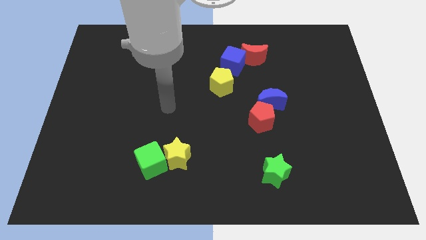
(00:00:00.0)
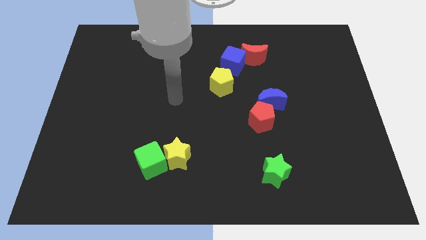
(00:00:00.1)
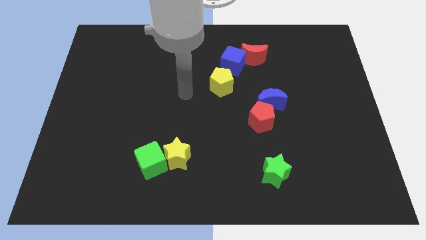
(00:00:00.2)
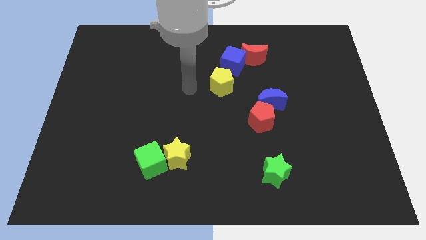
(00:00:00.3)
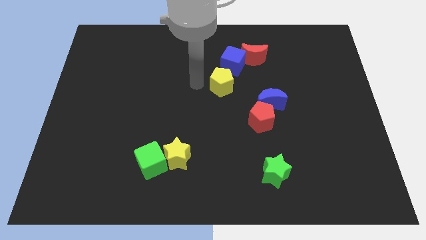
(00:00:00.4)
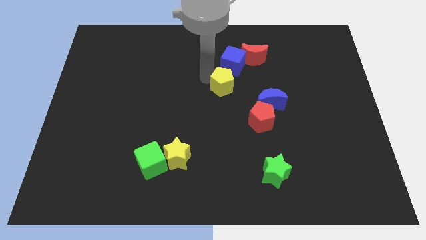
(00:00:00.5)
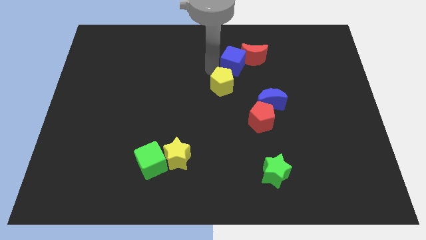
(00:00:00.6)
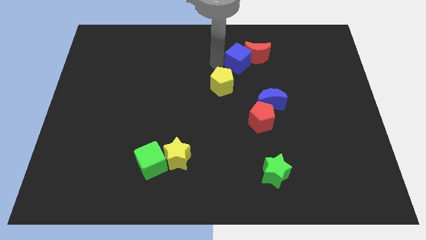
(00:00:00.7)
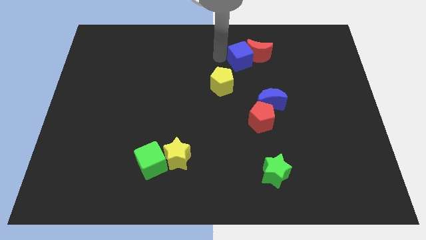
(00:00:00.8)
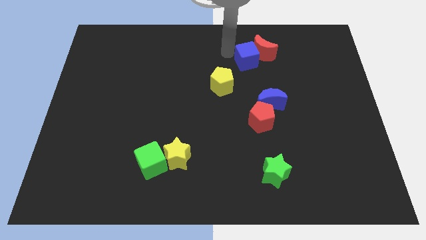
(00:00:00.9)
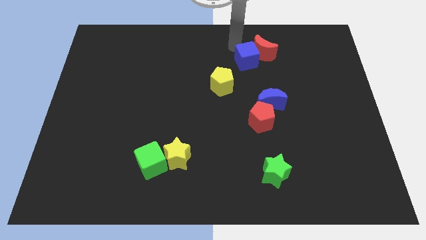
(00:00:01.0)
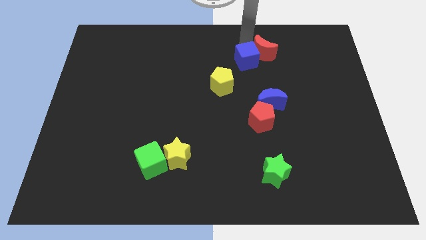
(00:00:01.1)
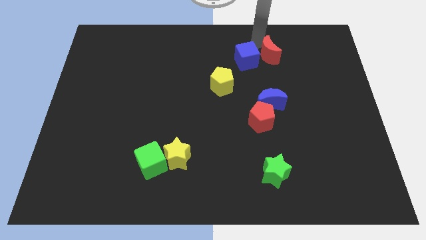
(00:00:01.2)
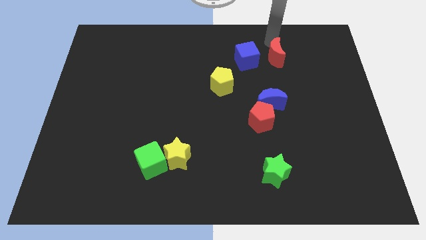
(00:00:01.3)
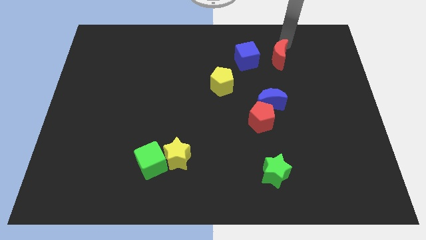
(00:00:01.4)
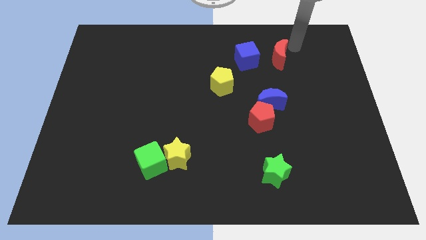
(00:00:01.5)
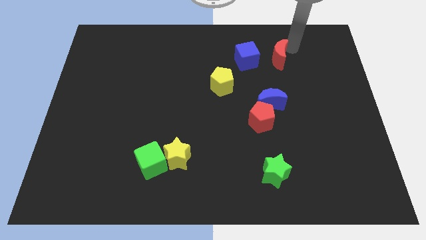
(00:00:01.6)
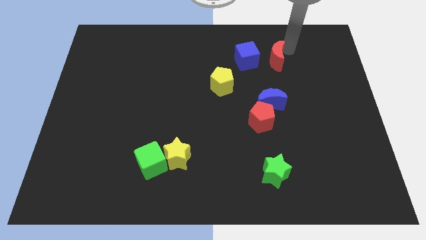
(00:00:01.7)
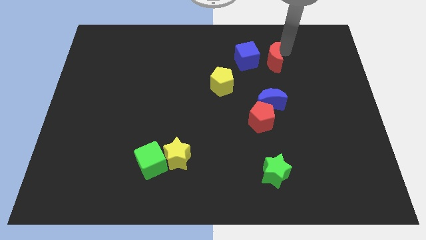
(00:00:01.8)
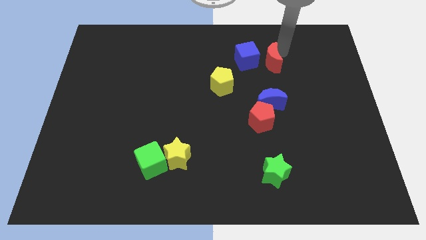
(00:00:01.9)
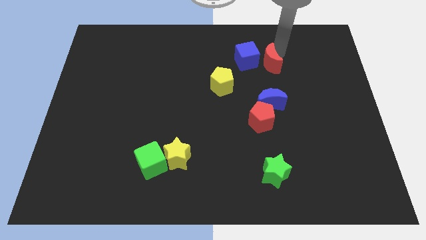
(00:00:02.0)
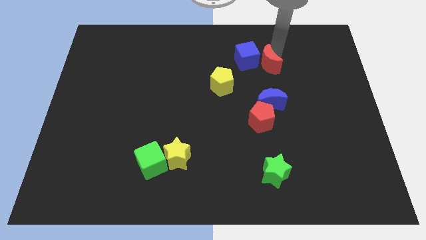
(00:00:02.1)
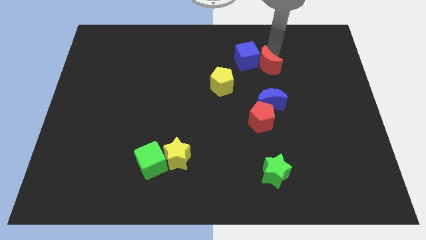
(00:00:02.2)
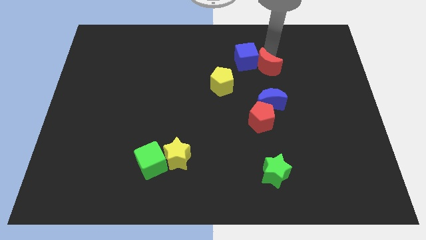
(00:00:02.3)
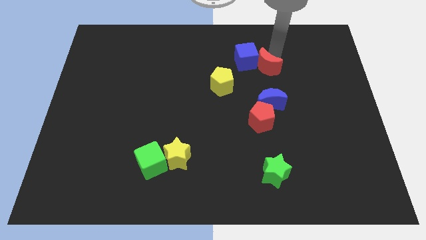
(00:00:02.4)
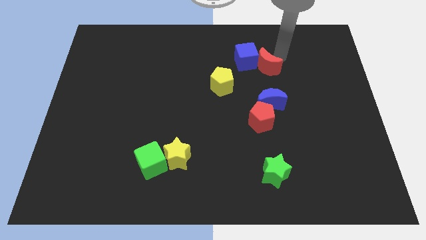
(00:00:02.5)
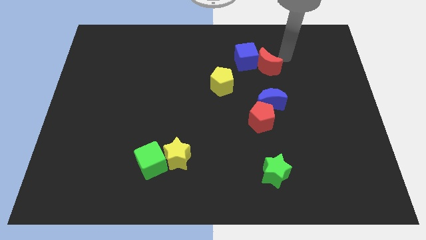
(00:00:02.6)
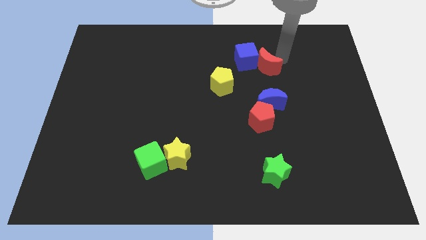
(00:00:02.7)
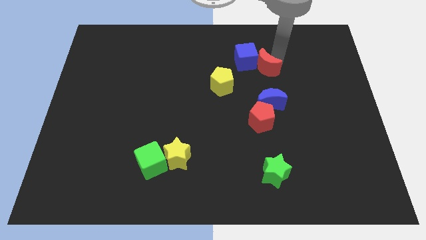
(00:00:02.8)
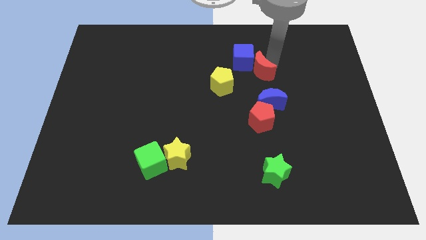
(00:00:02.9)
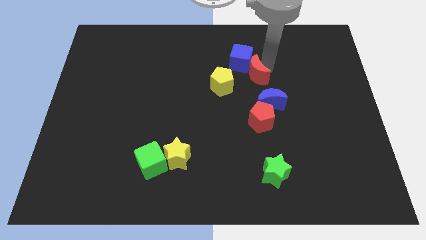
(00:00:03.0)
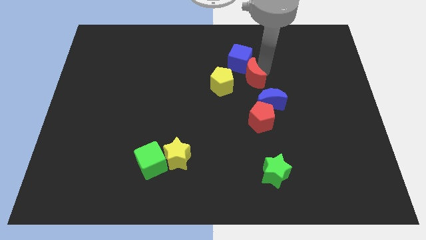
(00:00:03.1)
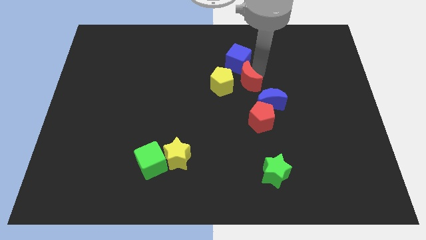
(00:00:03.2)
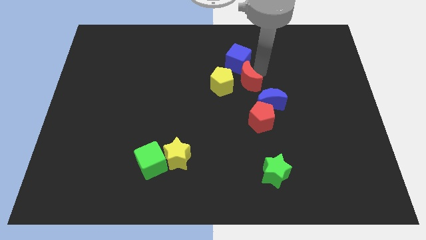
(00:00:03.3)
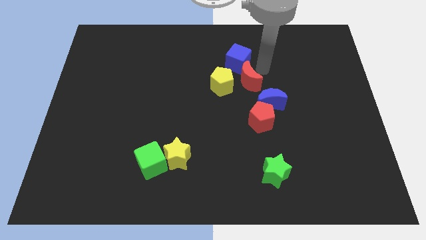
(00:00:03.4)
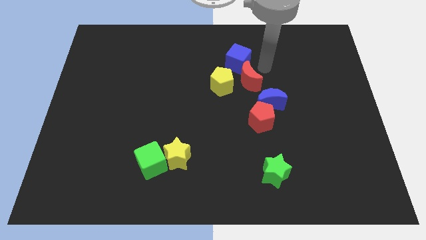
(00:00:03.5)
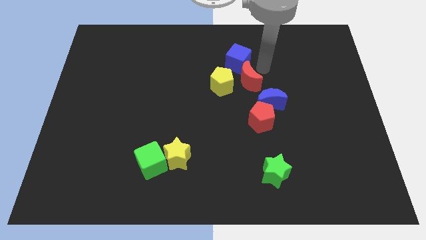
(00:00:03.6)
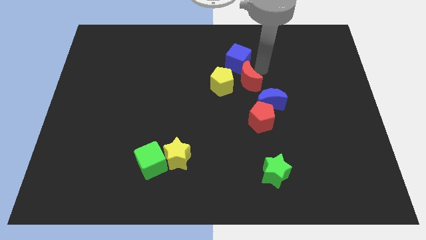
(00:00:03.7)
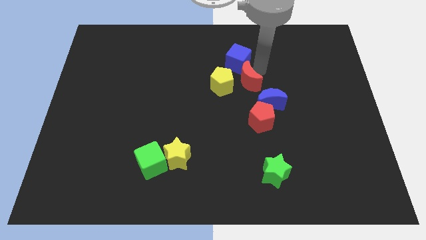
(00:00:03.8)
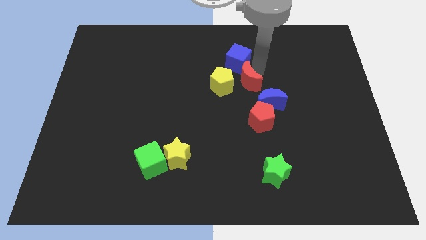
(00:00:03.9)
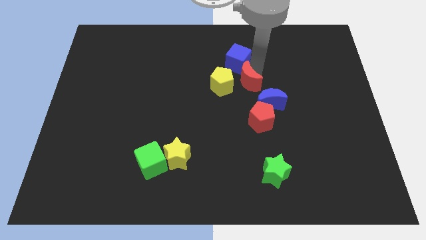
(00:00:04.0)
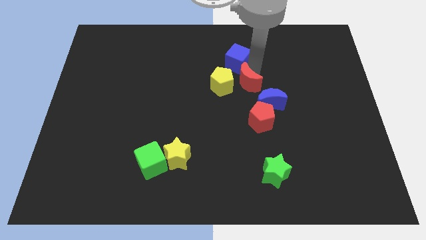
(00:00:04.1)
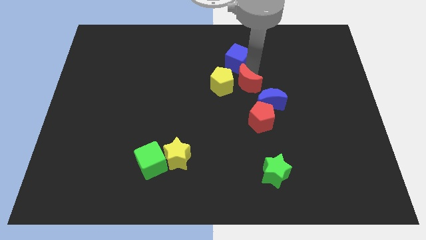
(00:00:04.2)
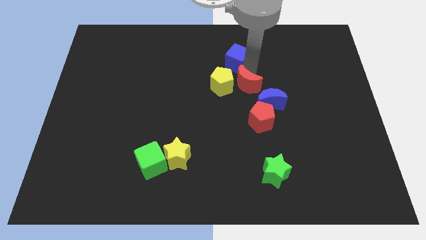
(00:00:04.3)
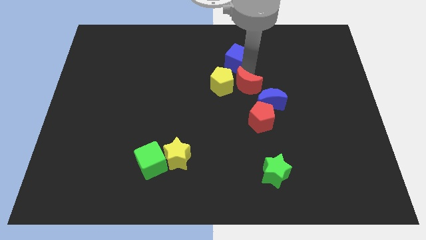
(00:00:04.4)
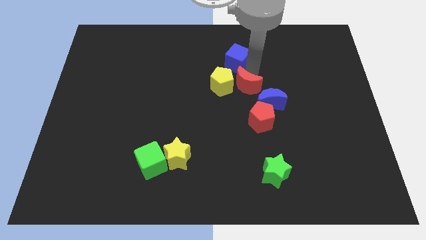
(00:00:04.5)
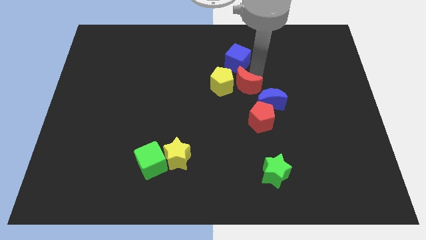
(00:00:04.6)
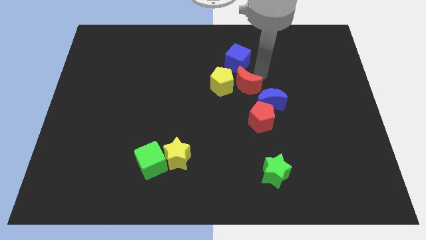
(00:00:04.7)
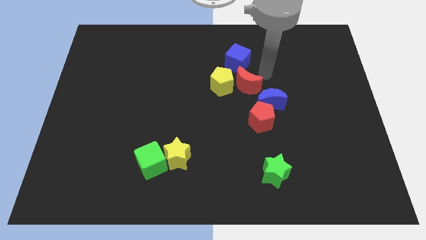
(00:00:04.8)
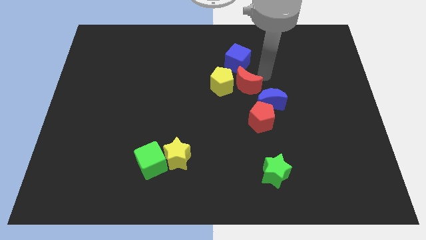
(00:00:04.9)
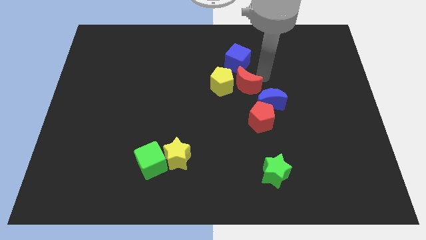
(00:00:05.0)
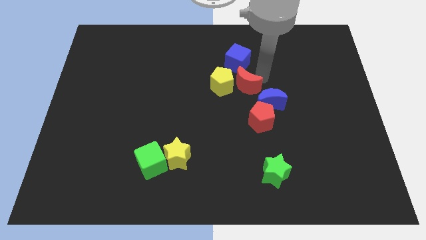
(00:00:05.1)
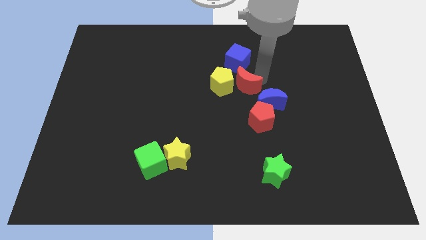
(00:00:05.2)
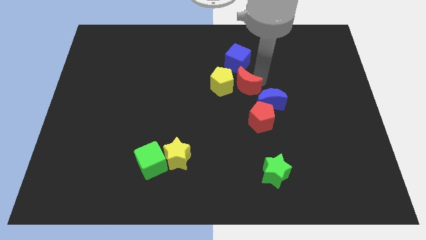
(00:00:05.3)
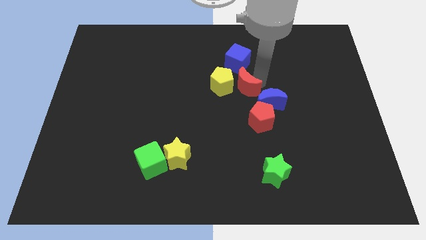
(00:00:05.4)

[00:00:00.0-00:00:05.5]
slide the red moon just left of the blue moon

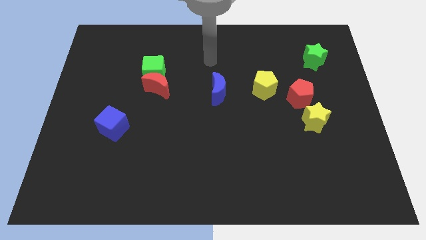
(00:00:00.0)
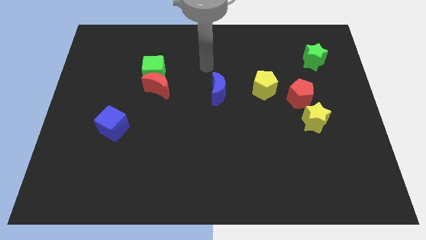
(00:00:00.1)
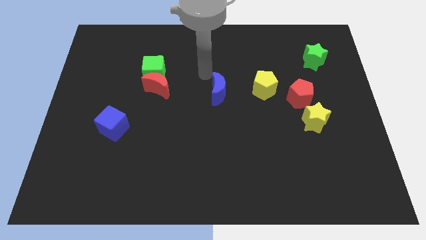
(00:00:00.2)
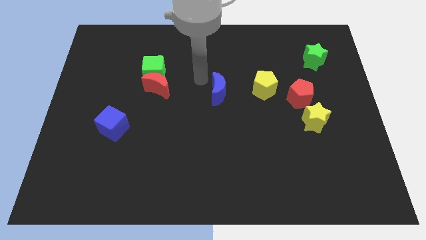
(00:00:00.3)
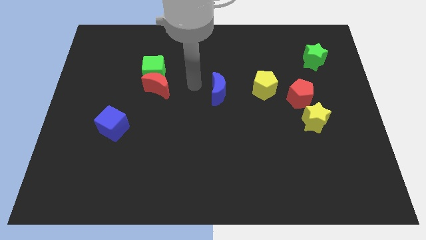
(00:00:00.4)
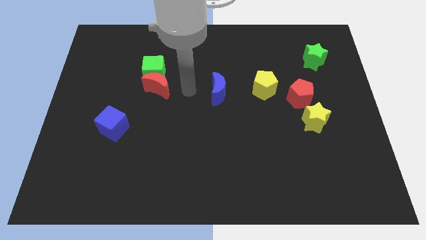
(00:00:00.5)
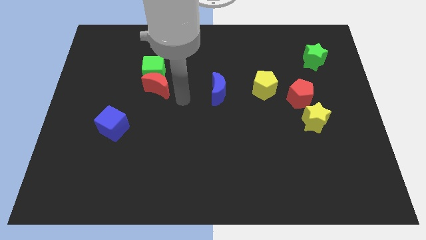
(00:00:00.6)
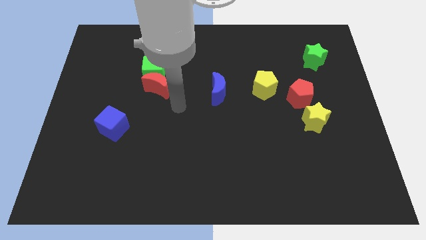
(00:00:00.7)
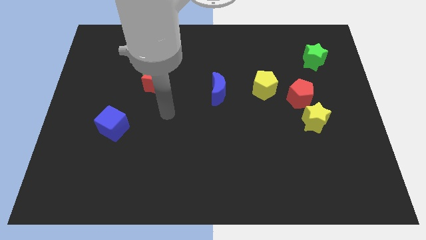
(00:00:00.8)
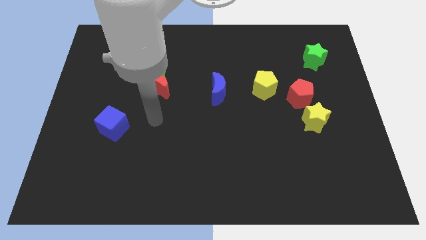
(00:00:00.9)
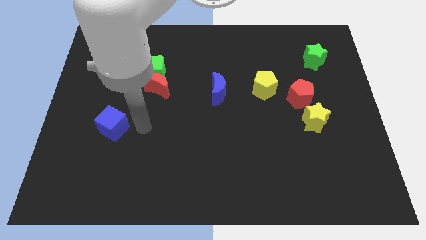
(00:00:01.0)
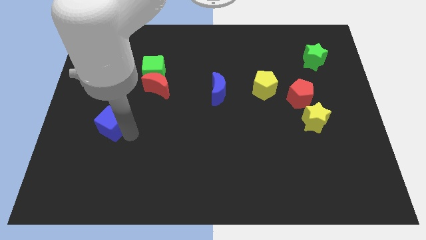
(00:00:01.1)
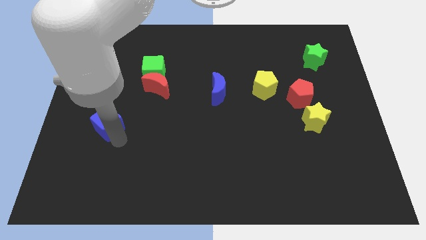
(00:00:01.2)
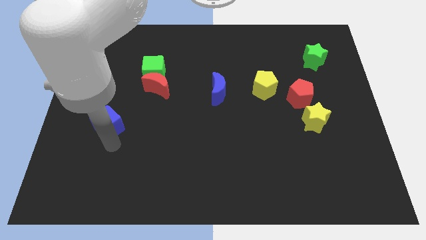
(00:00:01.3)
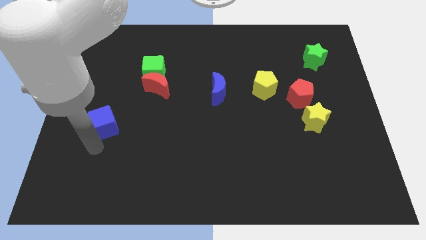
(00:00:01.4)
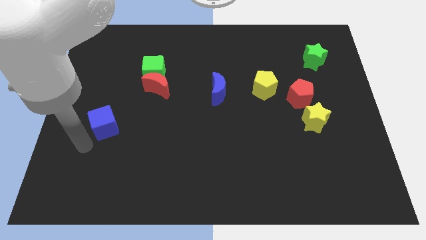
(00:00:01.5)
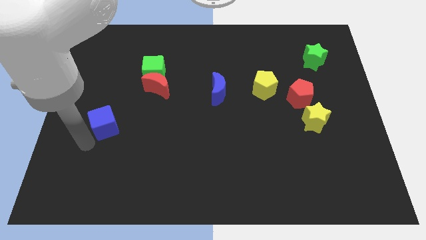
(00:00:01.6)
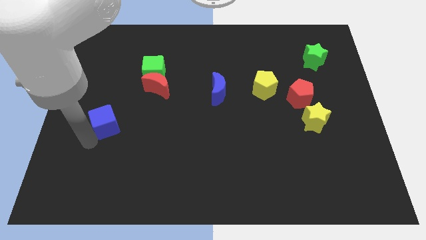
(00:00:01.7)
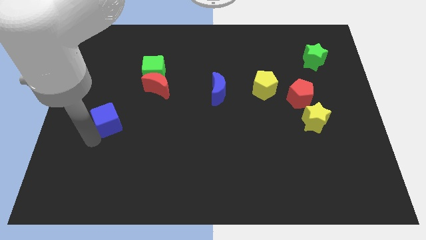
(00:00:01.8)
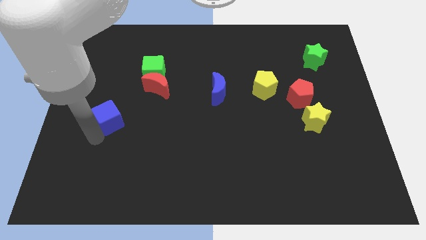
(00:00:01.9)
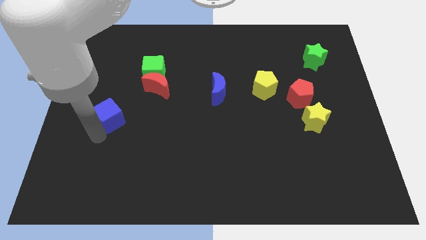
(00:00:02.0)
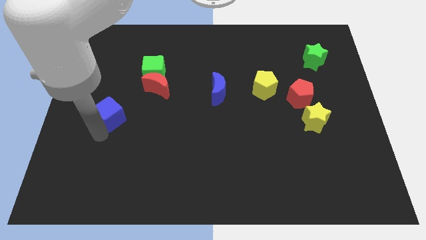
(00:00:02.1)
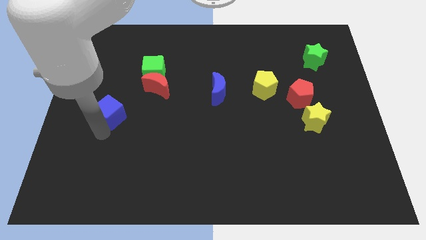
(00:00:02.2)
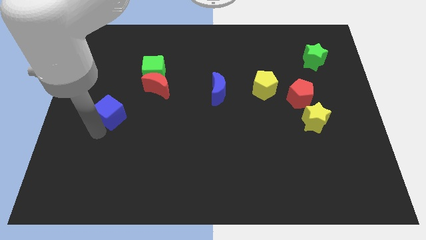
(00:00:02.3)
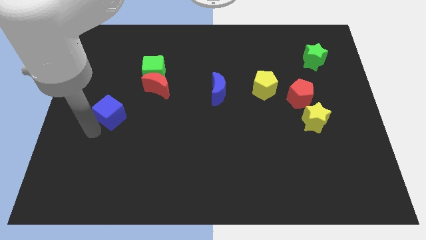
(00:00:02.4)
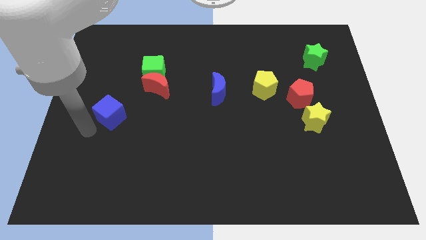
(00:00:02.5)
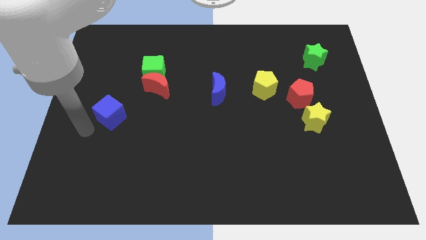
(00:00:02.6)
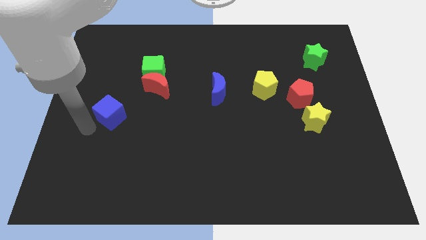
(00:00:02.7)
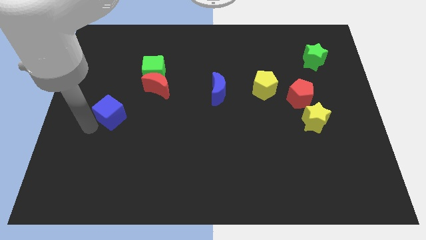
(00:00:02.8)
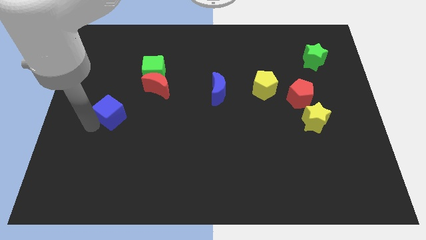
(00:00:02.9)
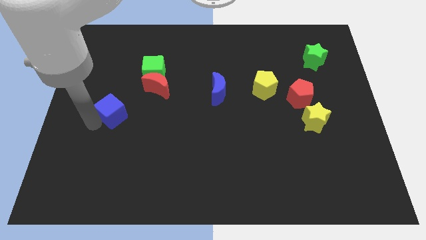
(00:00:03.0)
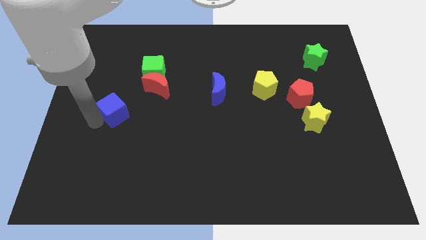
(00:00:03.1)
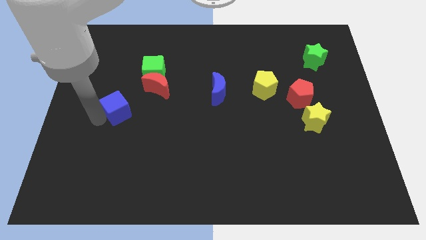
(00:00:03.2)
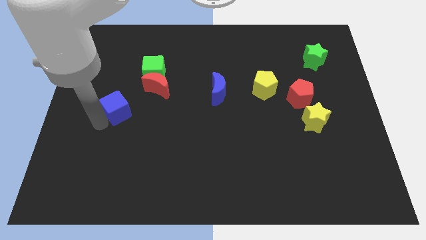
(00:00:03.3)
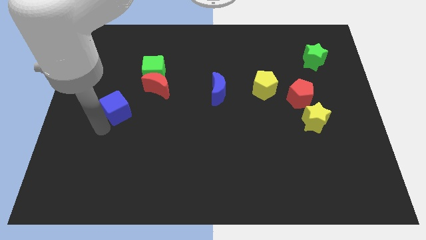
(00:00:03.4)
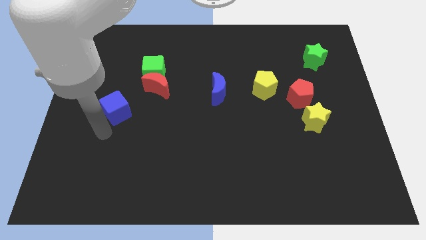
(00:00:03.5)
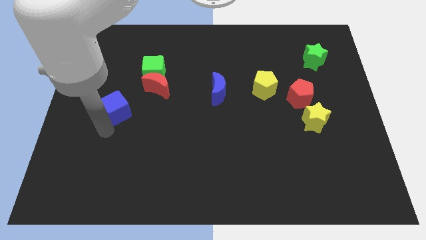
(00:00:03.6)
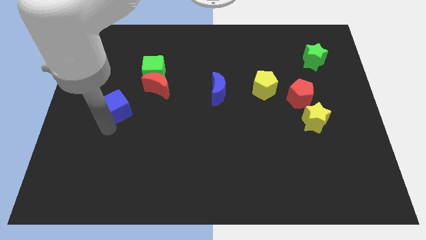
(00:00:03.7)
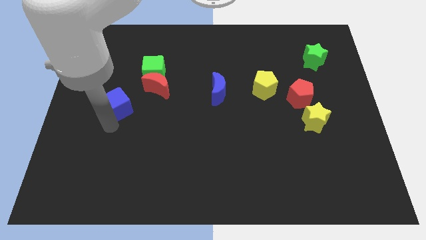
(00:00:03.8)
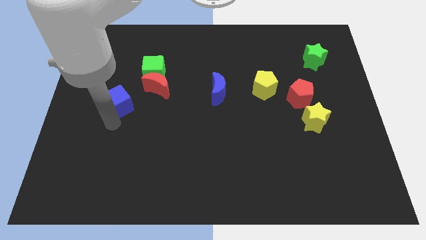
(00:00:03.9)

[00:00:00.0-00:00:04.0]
slide the blue cube to the bottom left of the green cube
